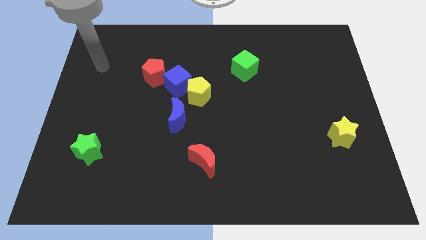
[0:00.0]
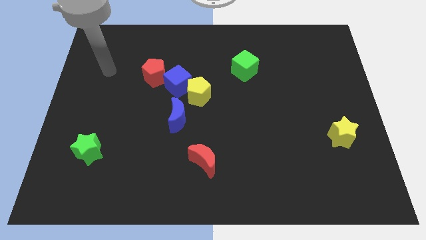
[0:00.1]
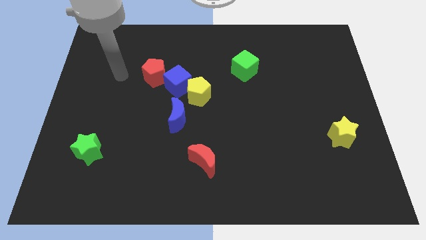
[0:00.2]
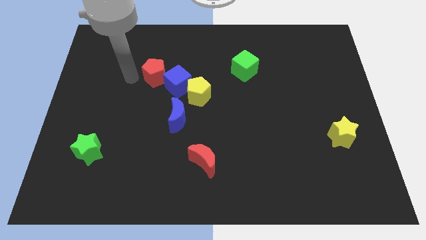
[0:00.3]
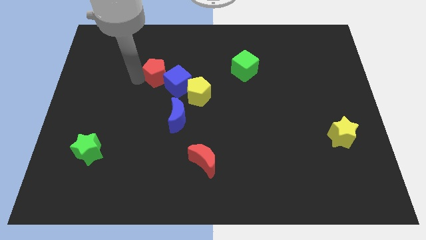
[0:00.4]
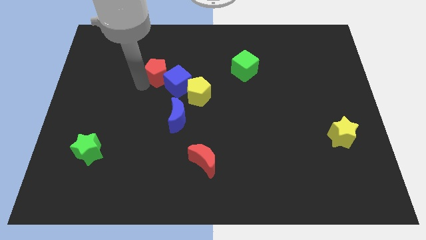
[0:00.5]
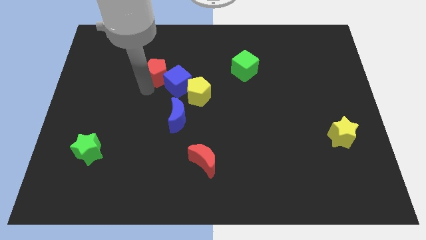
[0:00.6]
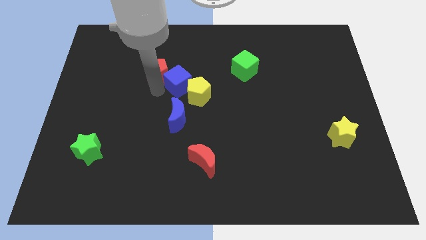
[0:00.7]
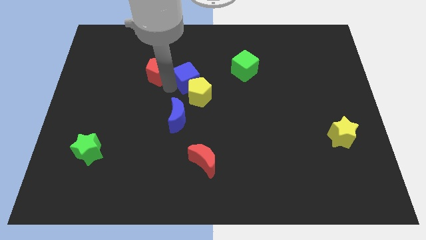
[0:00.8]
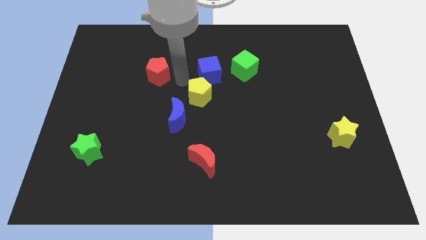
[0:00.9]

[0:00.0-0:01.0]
pull the red pentagon apart from the blue cube

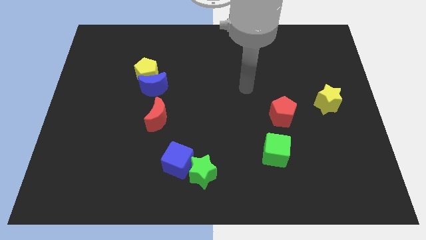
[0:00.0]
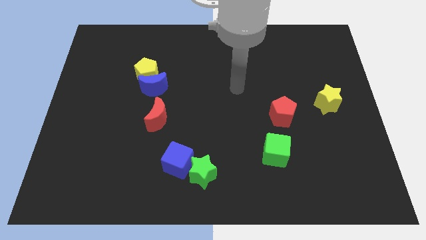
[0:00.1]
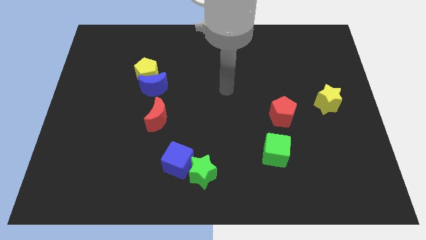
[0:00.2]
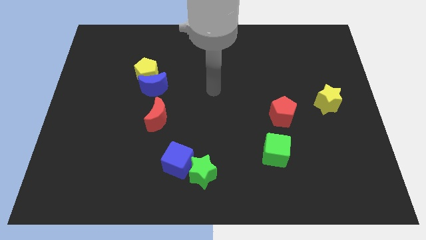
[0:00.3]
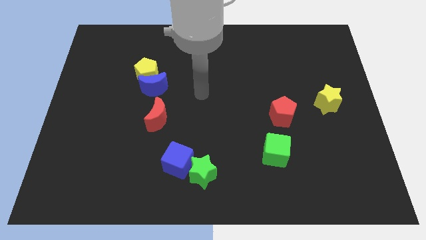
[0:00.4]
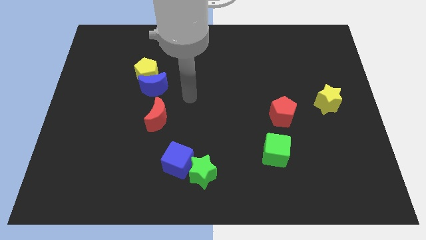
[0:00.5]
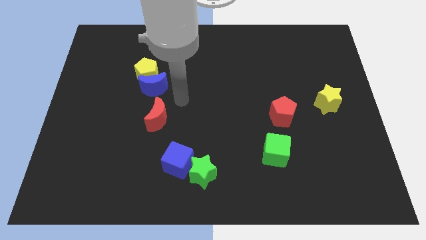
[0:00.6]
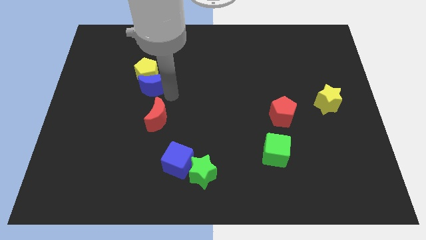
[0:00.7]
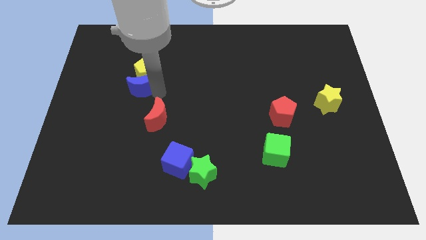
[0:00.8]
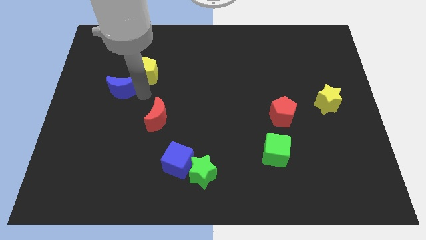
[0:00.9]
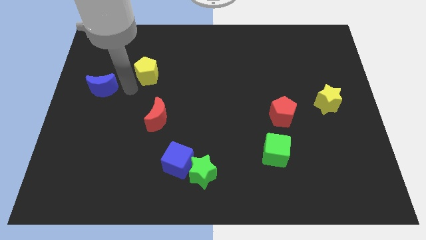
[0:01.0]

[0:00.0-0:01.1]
move the yellow pentagon away from the blue moon

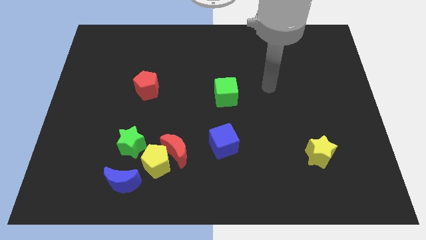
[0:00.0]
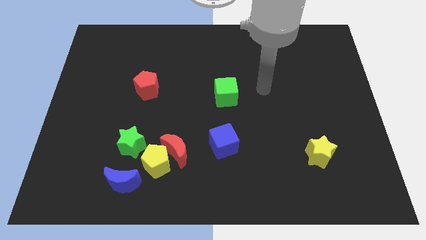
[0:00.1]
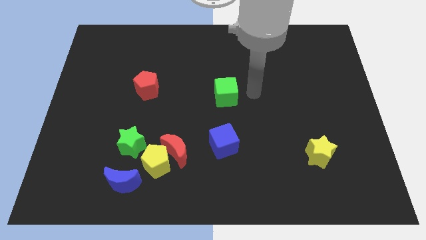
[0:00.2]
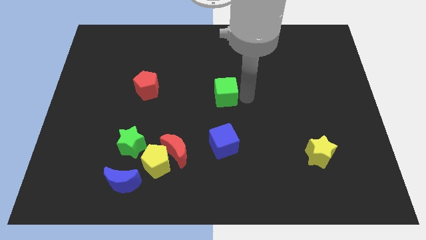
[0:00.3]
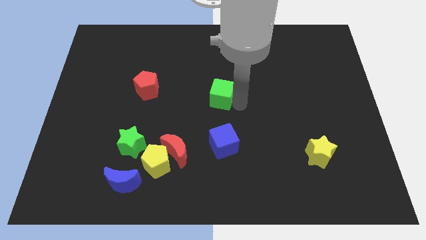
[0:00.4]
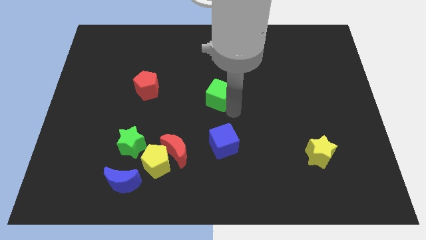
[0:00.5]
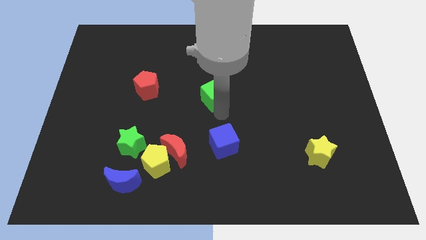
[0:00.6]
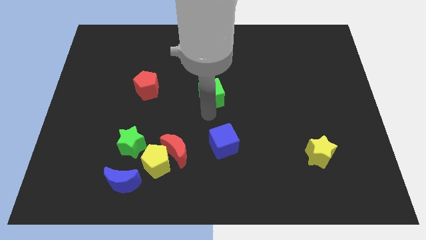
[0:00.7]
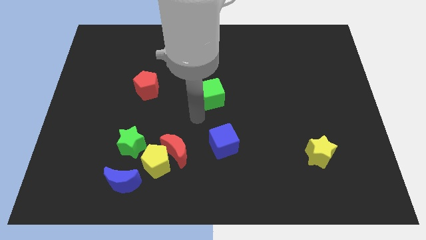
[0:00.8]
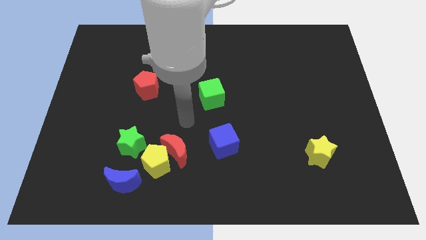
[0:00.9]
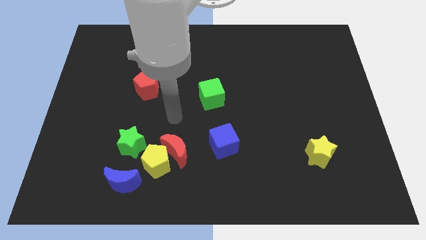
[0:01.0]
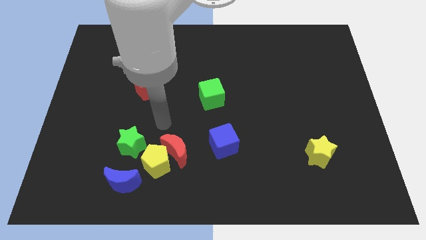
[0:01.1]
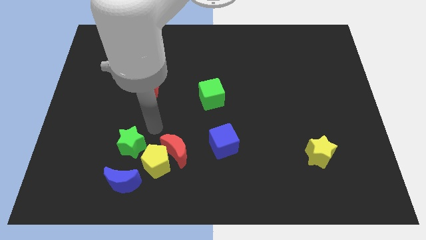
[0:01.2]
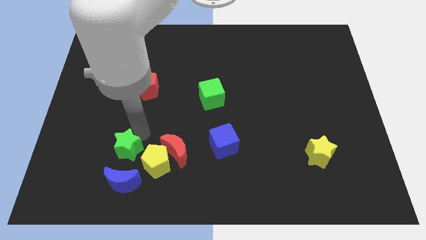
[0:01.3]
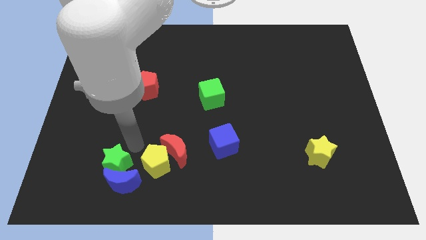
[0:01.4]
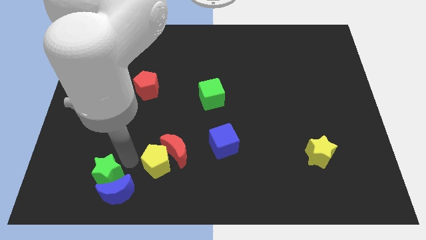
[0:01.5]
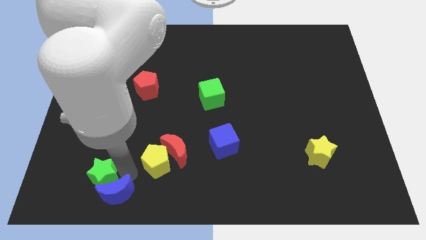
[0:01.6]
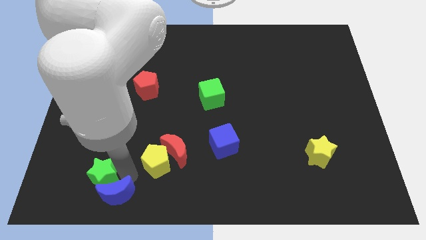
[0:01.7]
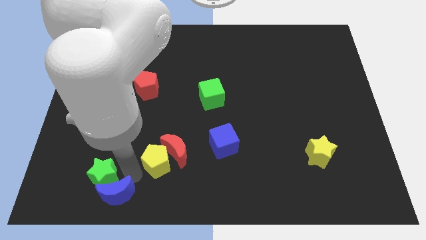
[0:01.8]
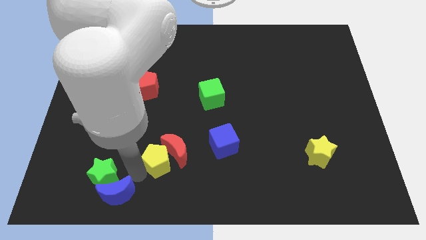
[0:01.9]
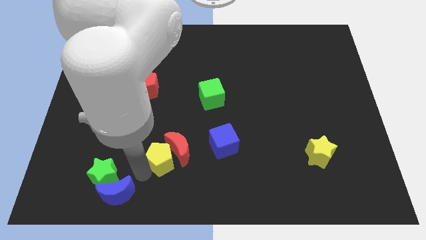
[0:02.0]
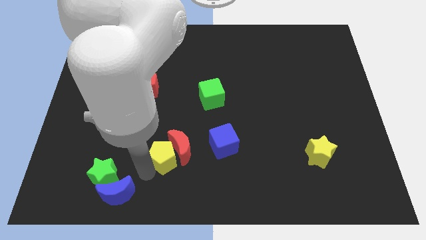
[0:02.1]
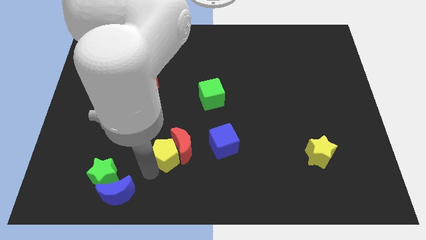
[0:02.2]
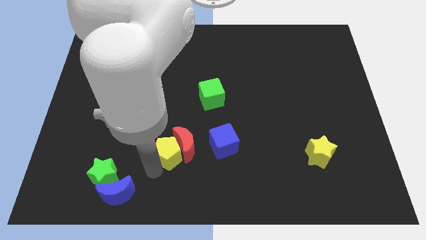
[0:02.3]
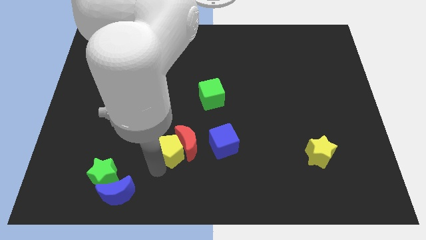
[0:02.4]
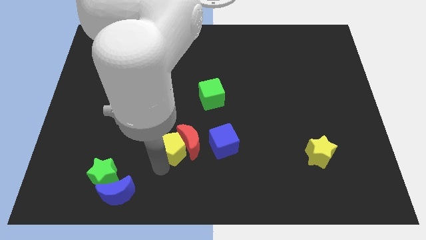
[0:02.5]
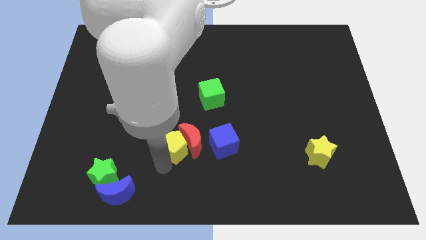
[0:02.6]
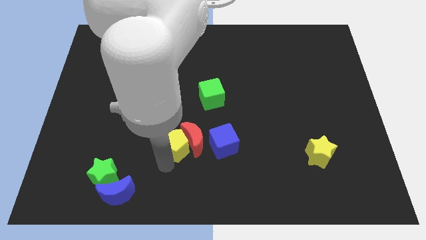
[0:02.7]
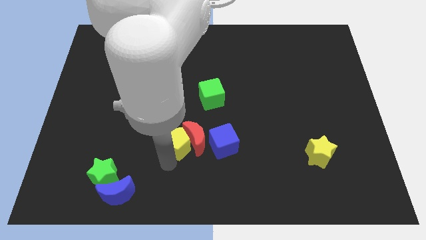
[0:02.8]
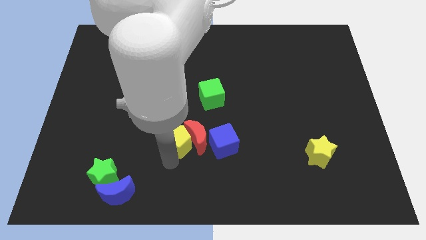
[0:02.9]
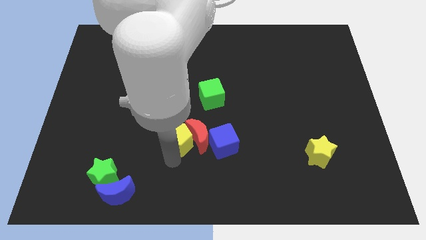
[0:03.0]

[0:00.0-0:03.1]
move the yellow pentagon away from the group

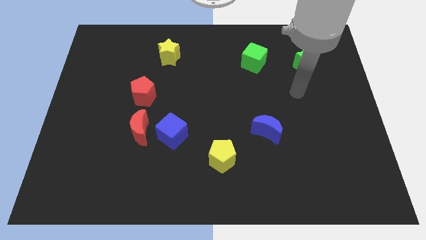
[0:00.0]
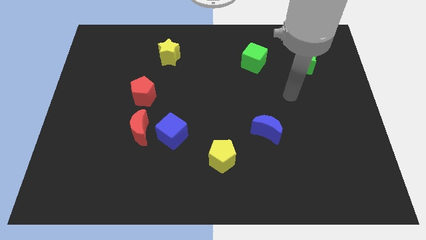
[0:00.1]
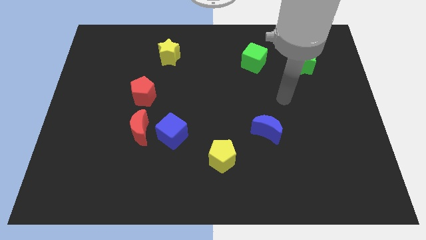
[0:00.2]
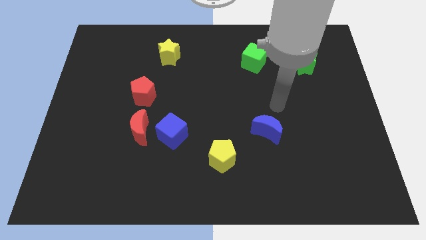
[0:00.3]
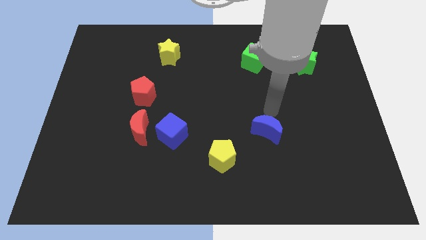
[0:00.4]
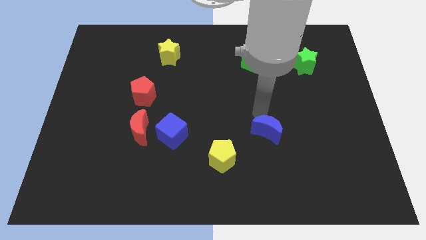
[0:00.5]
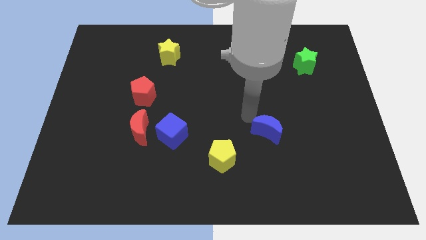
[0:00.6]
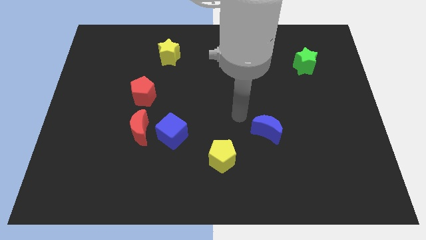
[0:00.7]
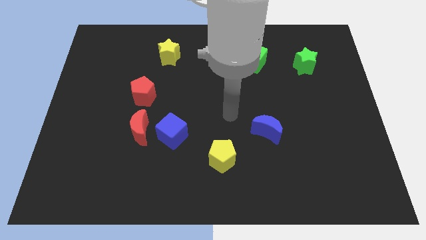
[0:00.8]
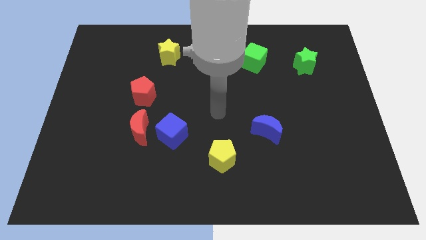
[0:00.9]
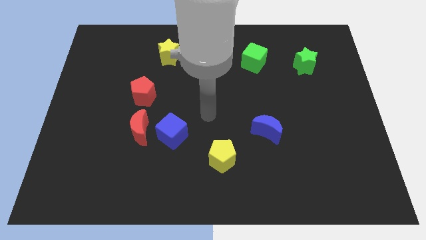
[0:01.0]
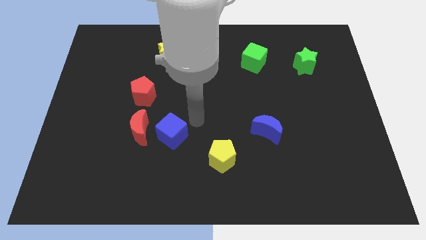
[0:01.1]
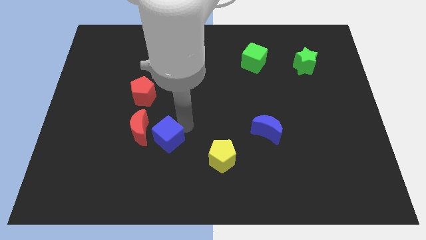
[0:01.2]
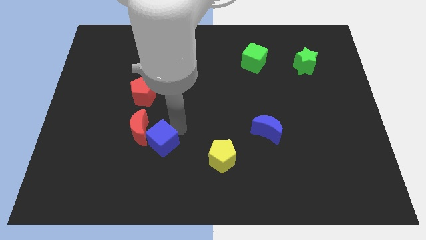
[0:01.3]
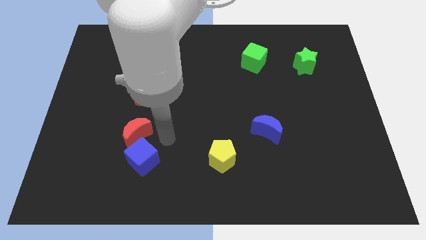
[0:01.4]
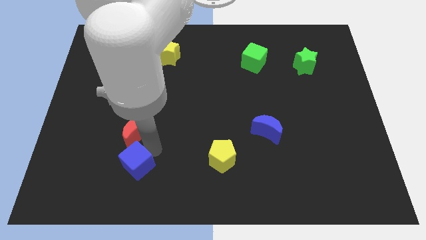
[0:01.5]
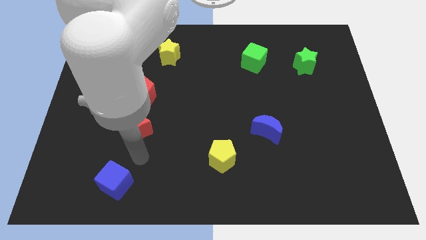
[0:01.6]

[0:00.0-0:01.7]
separate the red moon from the blue cube

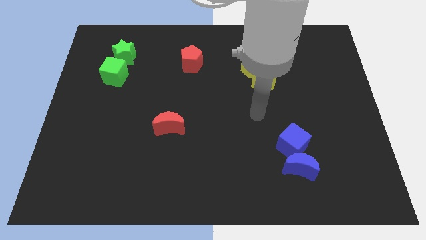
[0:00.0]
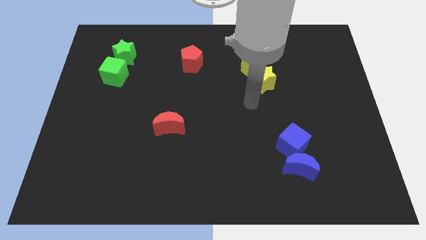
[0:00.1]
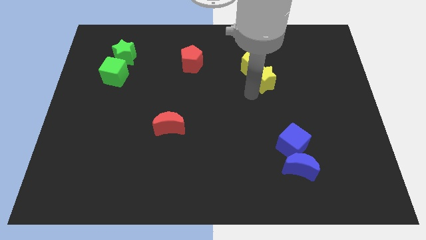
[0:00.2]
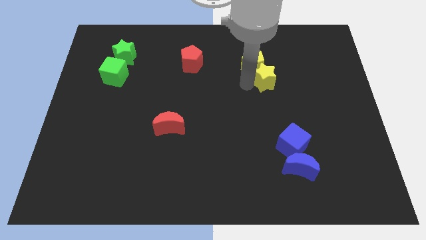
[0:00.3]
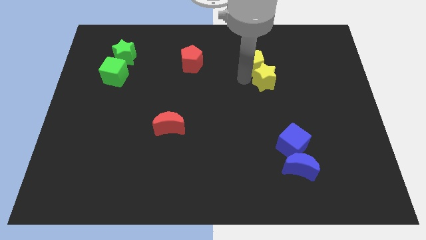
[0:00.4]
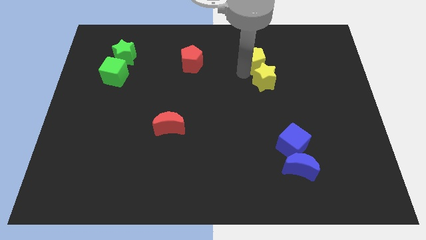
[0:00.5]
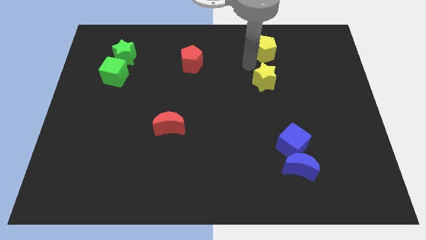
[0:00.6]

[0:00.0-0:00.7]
separate the yellow star from the yellow pentagon

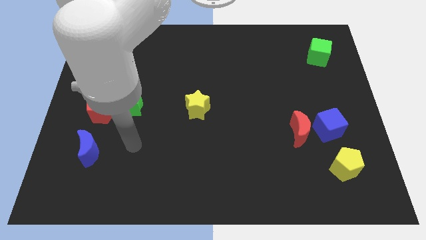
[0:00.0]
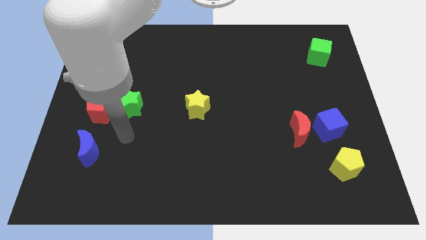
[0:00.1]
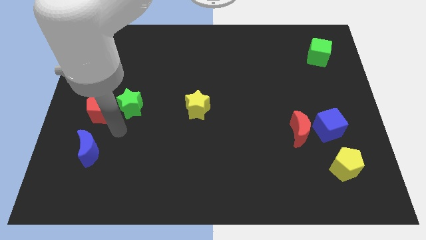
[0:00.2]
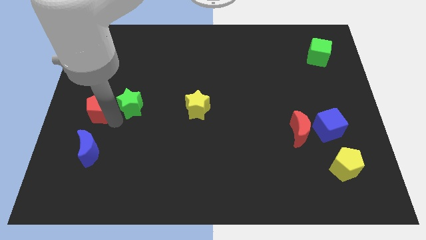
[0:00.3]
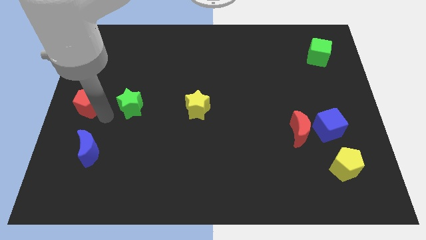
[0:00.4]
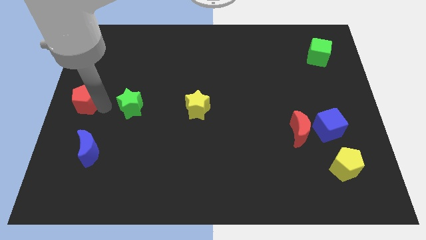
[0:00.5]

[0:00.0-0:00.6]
separate the green star from the red pentagon

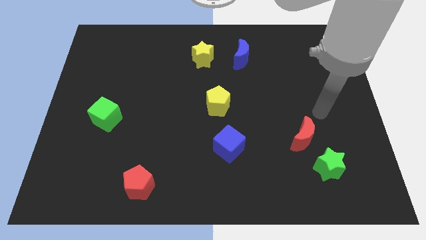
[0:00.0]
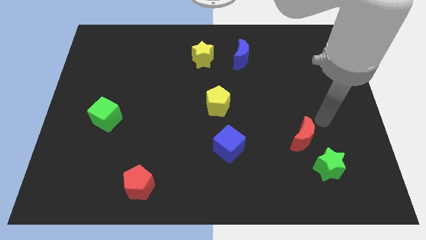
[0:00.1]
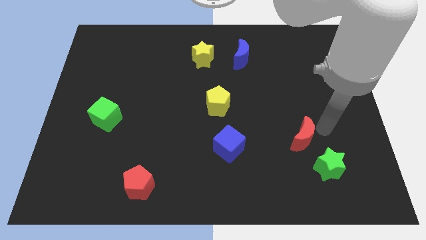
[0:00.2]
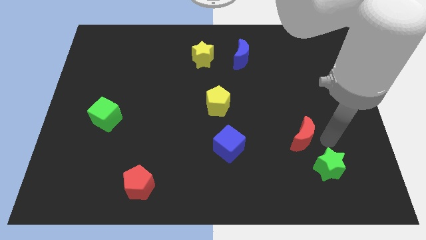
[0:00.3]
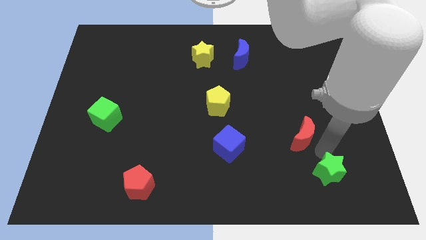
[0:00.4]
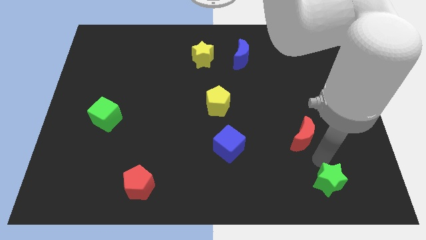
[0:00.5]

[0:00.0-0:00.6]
separate the red moon from the green star

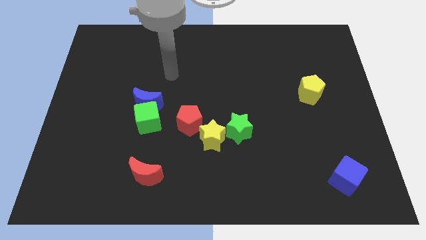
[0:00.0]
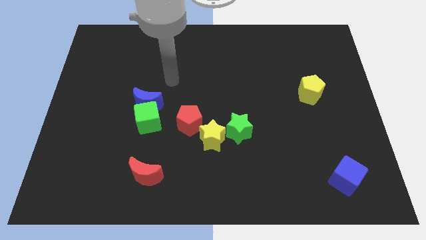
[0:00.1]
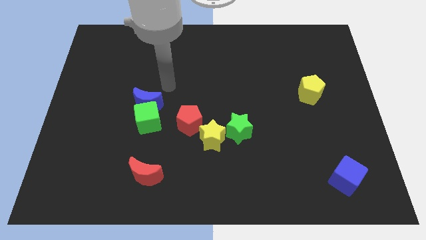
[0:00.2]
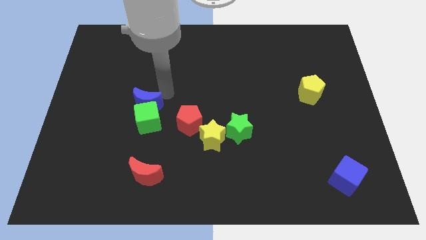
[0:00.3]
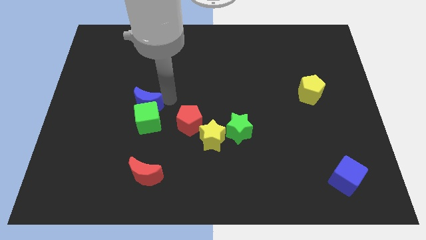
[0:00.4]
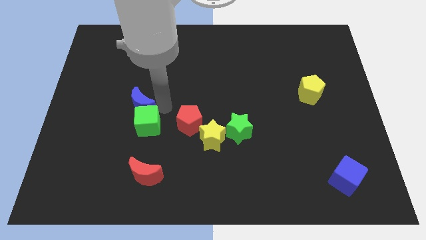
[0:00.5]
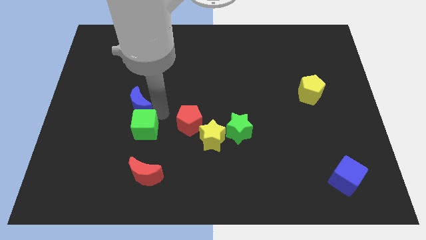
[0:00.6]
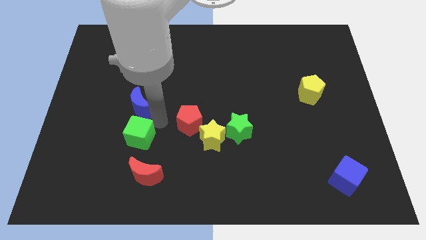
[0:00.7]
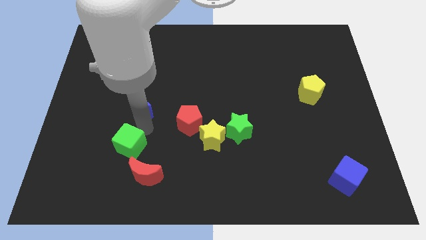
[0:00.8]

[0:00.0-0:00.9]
separate the blue moon from the green cube
